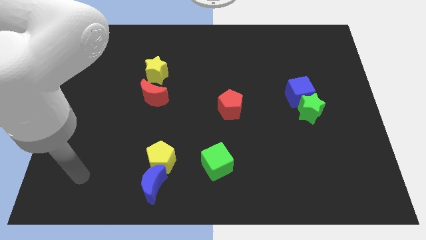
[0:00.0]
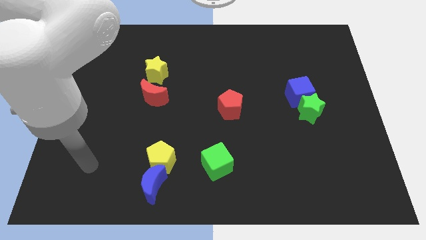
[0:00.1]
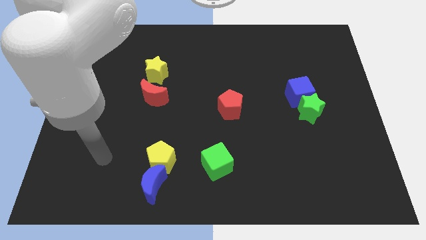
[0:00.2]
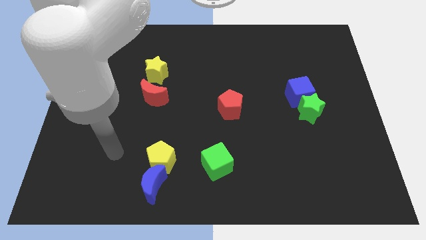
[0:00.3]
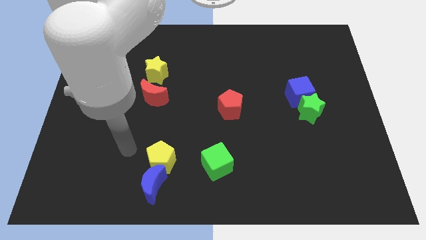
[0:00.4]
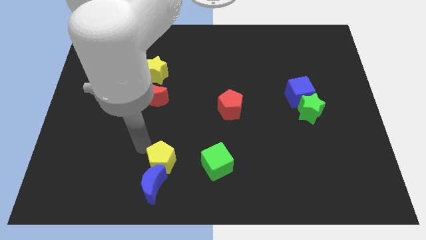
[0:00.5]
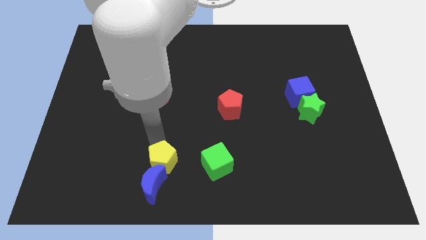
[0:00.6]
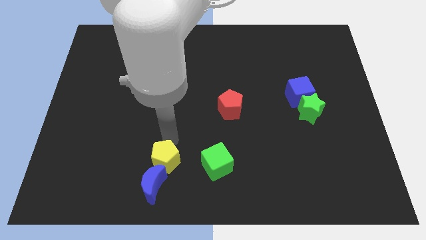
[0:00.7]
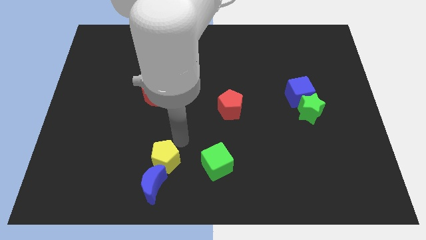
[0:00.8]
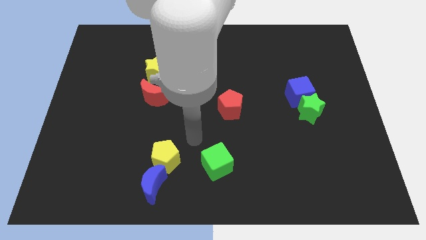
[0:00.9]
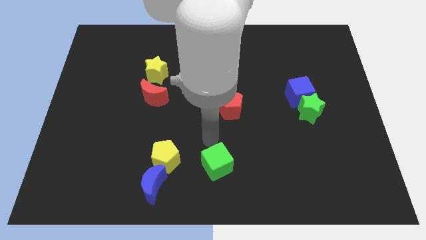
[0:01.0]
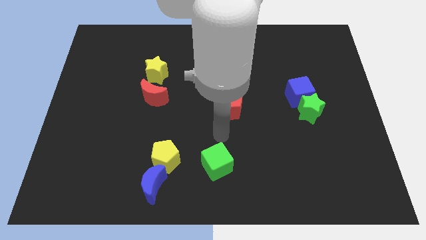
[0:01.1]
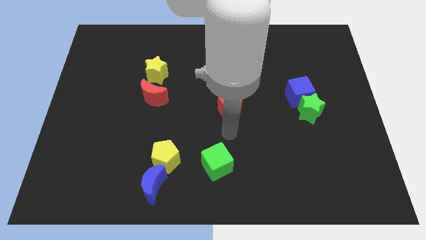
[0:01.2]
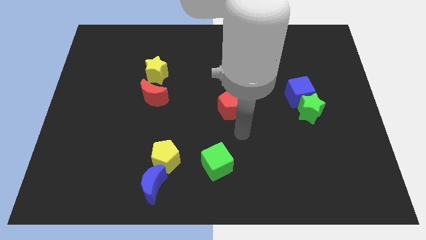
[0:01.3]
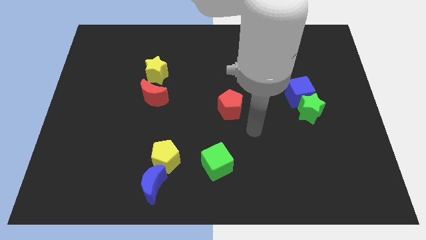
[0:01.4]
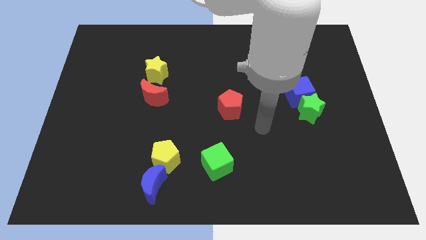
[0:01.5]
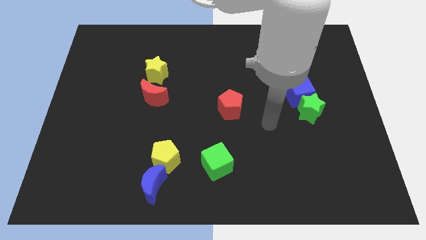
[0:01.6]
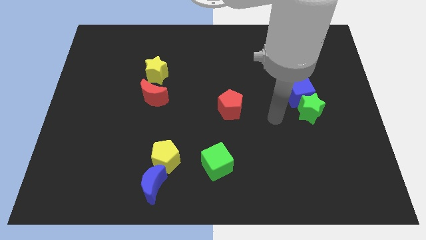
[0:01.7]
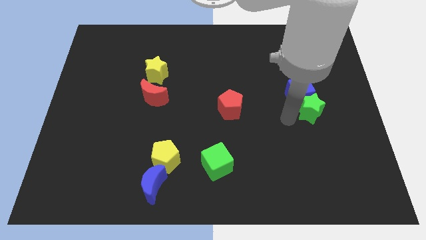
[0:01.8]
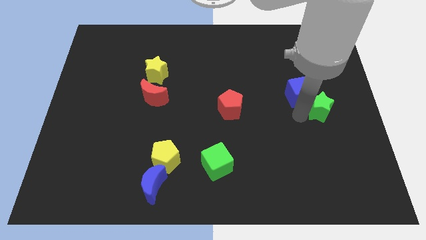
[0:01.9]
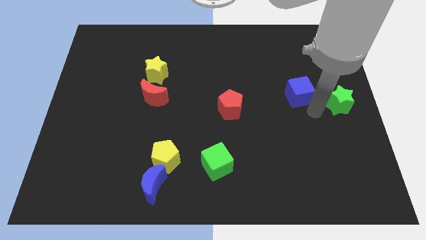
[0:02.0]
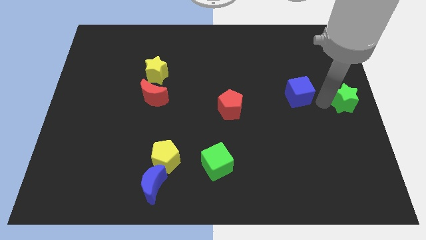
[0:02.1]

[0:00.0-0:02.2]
pull the blue cube apart from the green star

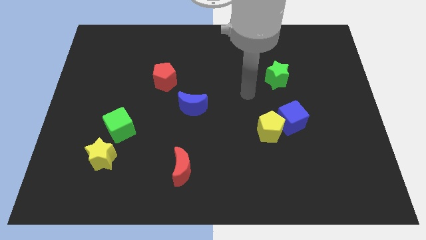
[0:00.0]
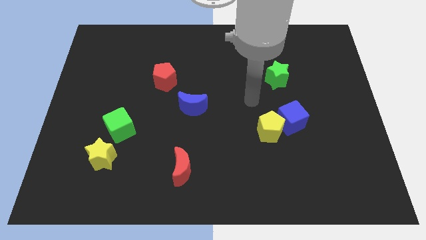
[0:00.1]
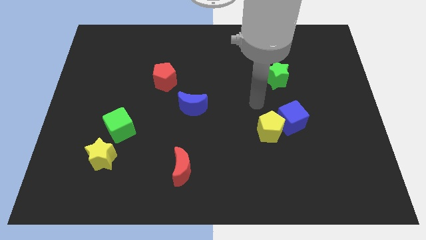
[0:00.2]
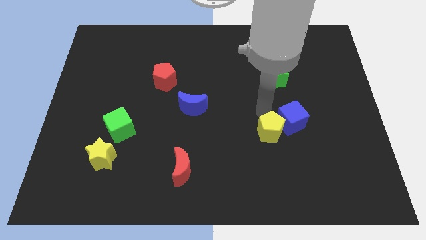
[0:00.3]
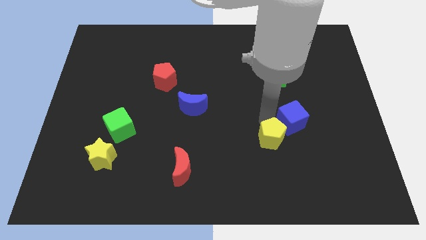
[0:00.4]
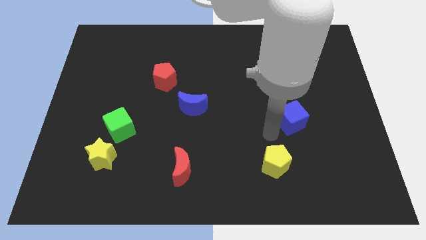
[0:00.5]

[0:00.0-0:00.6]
separate the blue cube from the yellow pentagon

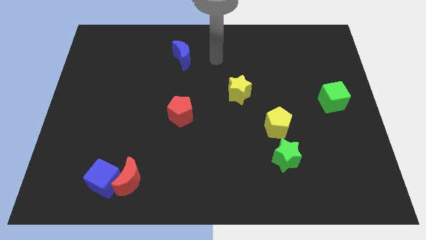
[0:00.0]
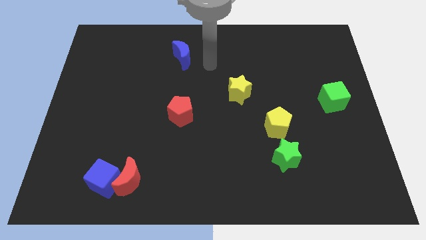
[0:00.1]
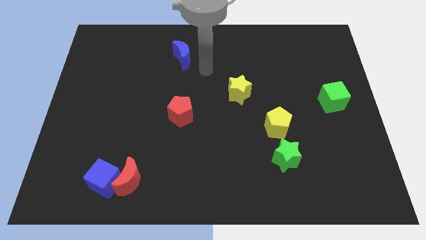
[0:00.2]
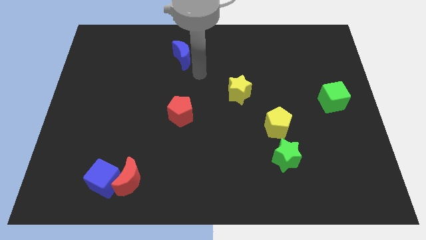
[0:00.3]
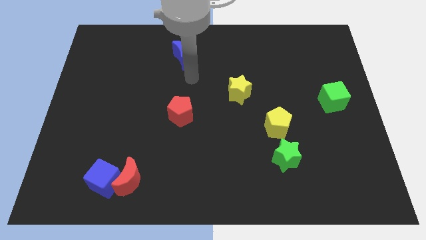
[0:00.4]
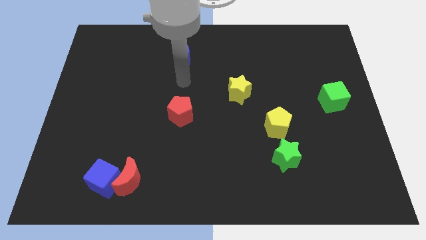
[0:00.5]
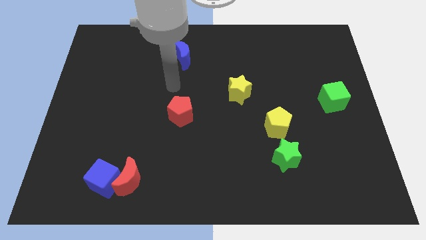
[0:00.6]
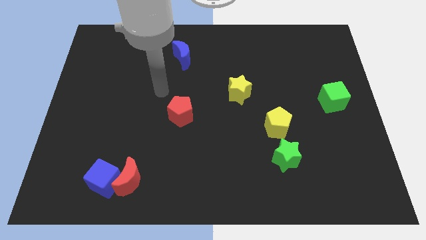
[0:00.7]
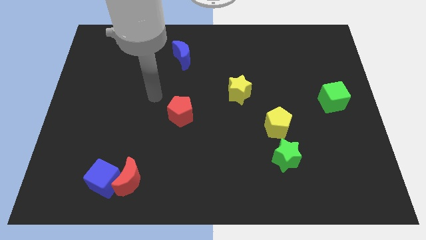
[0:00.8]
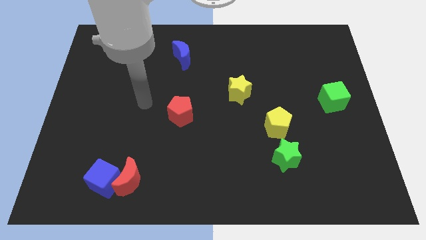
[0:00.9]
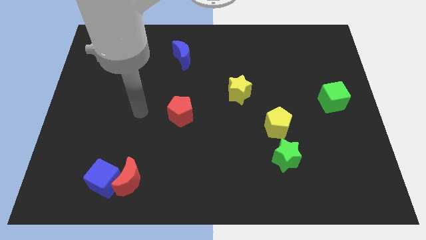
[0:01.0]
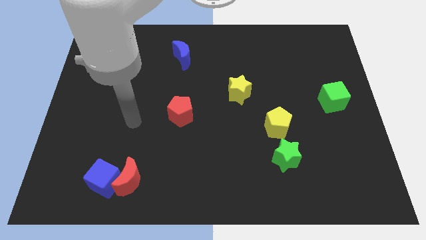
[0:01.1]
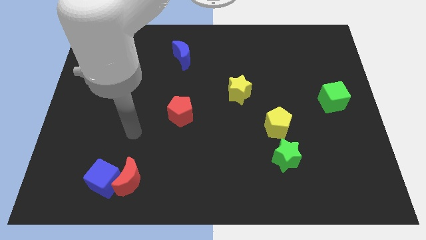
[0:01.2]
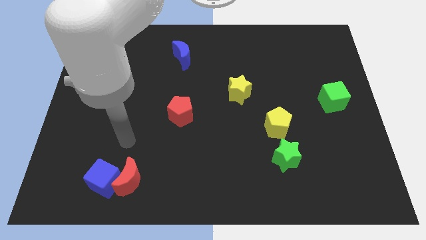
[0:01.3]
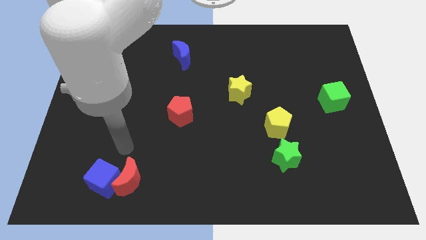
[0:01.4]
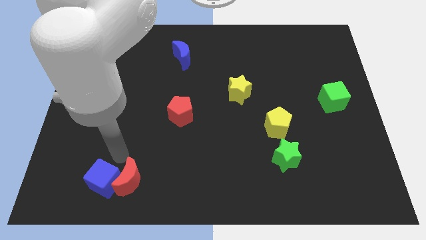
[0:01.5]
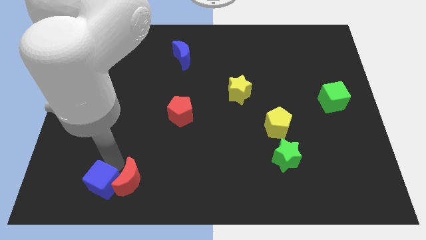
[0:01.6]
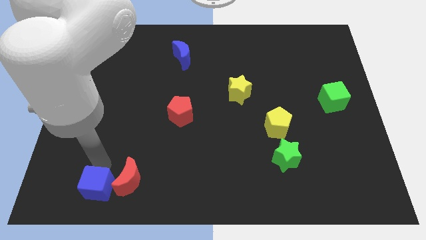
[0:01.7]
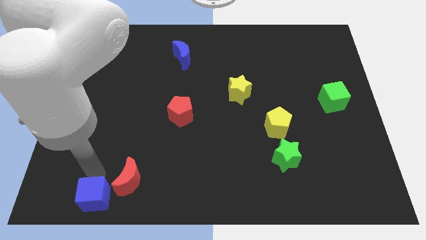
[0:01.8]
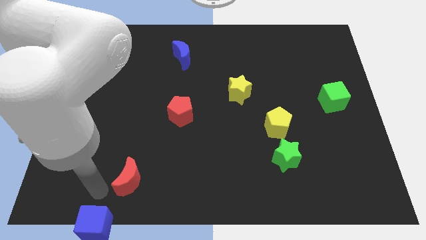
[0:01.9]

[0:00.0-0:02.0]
separate the red moon from the blue cube

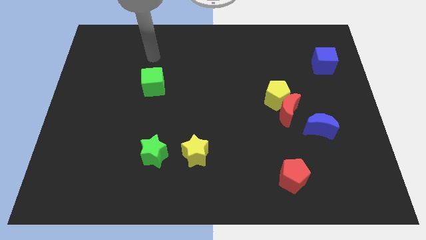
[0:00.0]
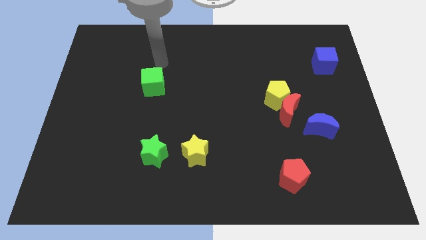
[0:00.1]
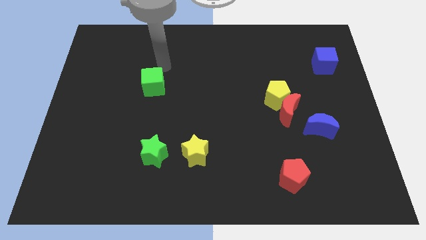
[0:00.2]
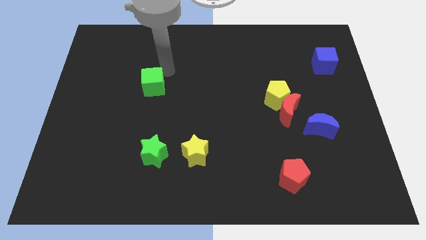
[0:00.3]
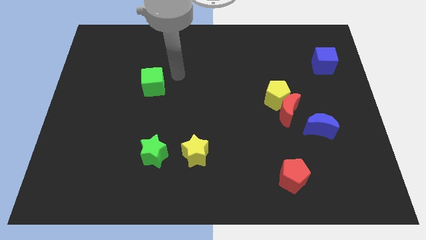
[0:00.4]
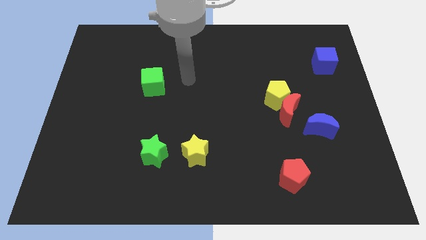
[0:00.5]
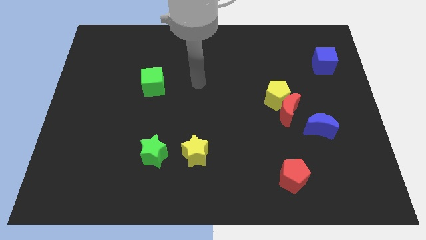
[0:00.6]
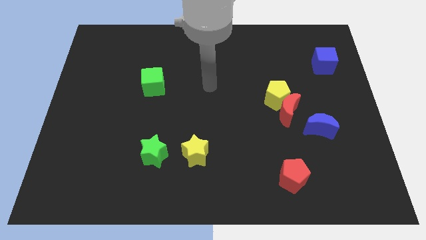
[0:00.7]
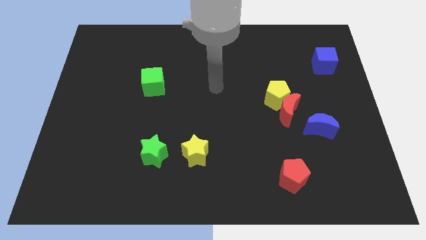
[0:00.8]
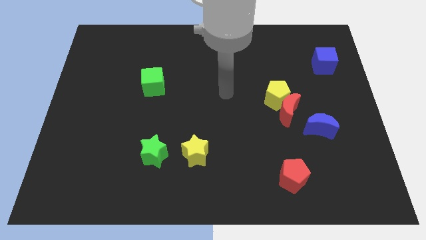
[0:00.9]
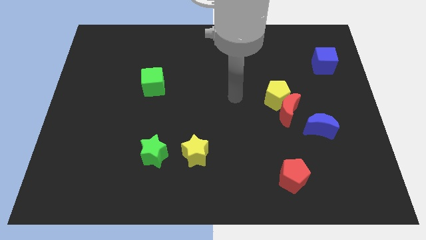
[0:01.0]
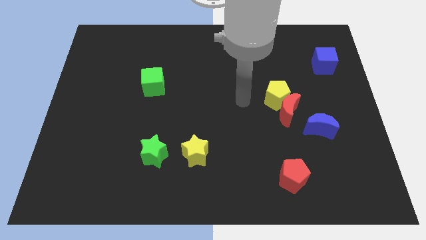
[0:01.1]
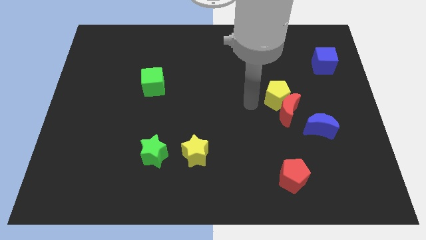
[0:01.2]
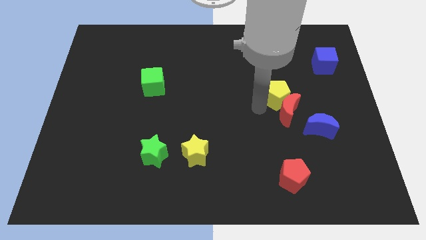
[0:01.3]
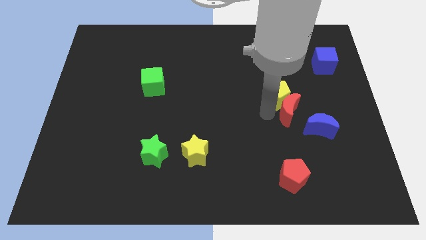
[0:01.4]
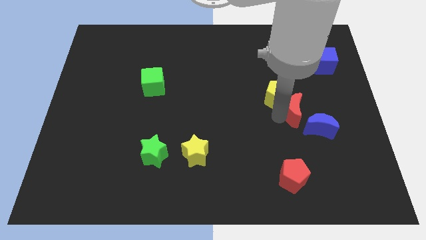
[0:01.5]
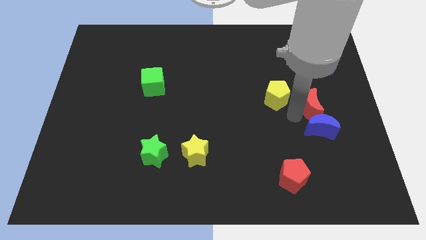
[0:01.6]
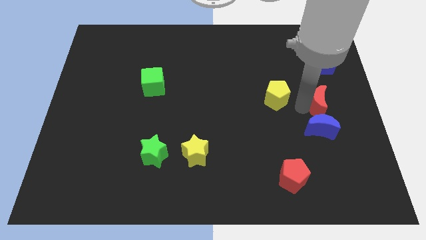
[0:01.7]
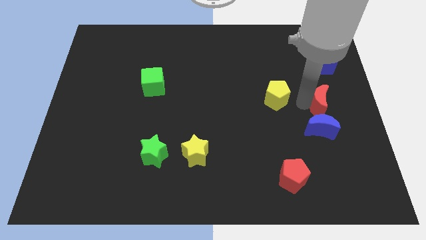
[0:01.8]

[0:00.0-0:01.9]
separate the yellow pentagon from the red moon

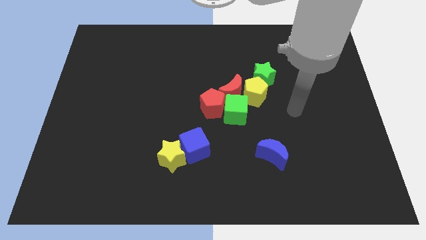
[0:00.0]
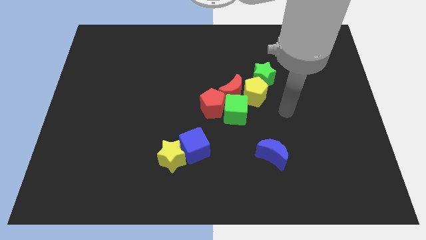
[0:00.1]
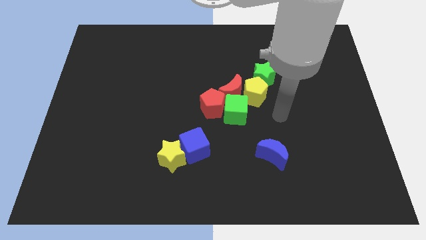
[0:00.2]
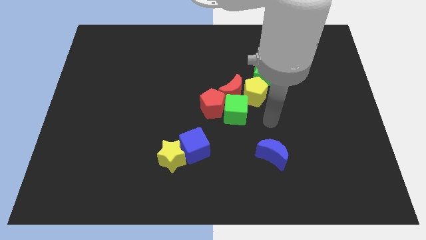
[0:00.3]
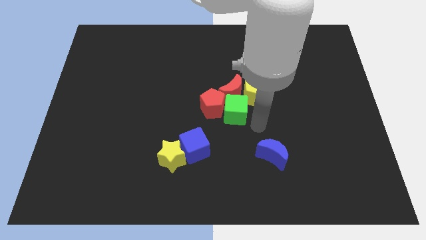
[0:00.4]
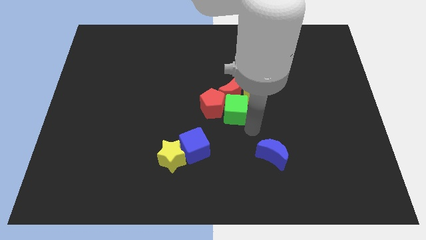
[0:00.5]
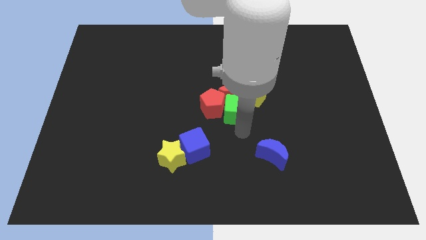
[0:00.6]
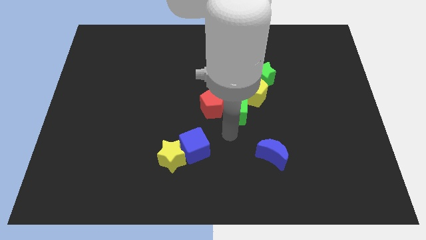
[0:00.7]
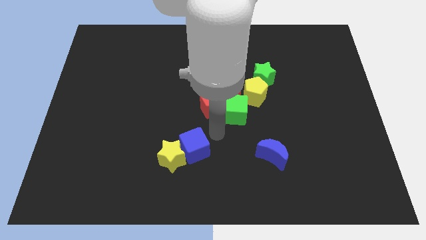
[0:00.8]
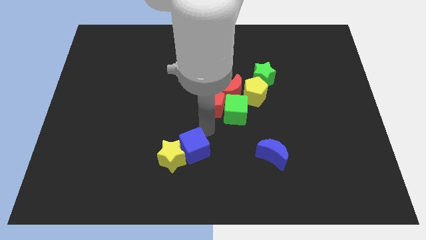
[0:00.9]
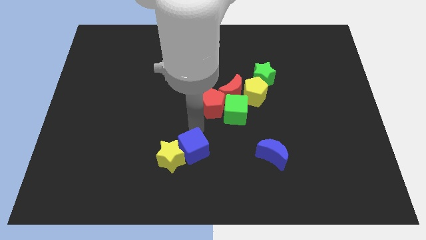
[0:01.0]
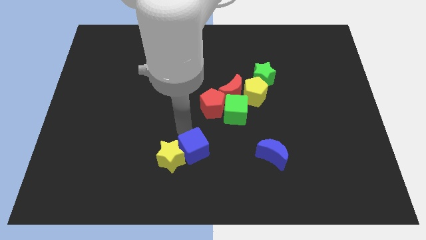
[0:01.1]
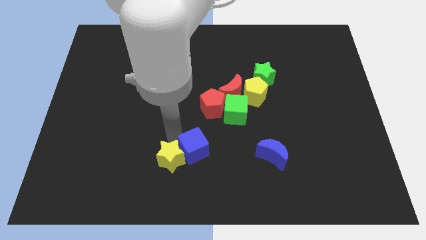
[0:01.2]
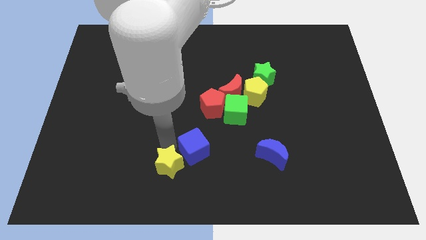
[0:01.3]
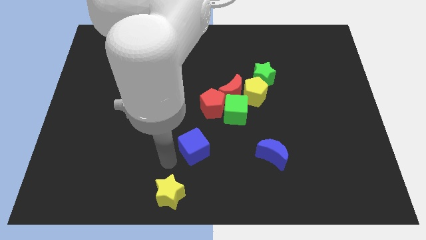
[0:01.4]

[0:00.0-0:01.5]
move the blue cube away from the yellow star

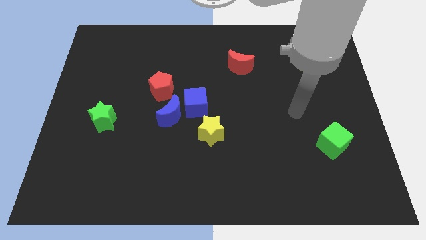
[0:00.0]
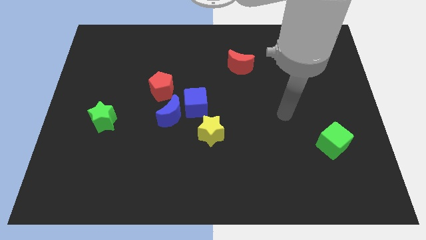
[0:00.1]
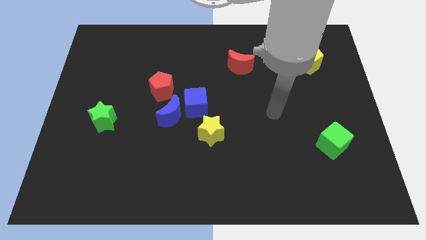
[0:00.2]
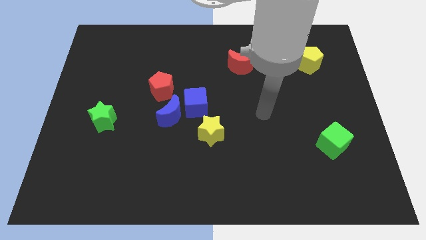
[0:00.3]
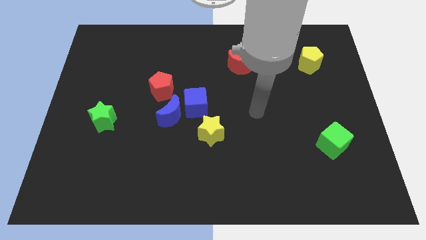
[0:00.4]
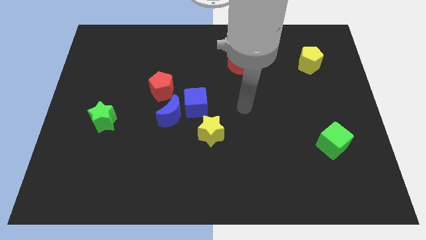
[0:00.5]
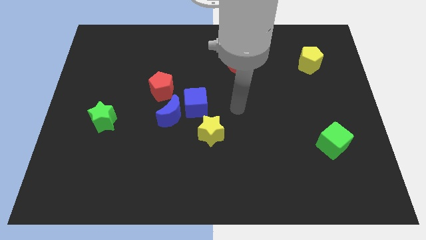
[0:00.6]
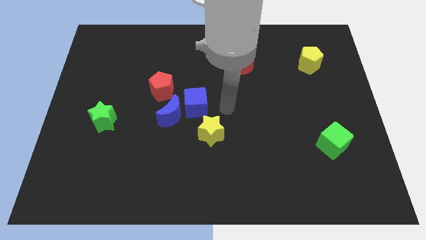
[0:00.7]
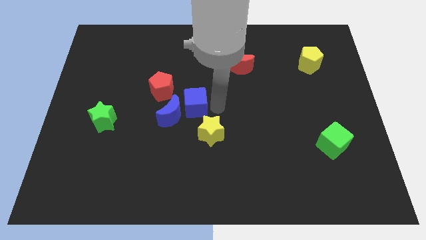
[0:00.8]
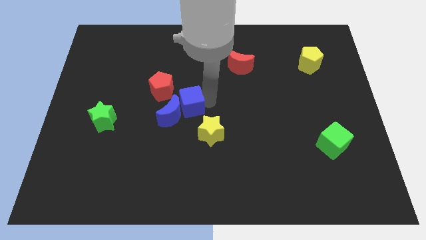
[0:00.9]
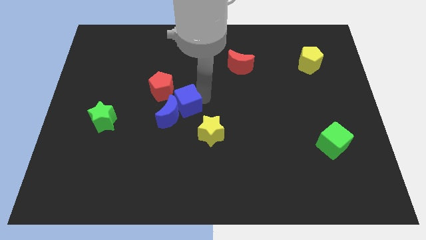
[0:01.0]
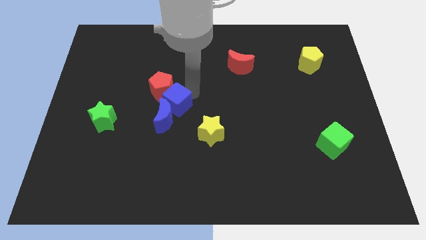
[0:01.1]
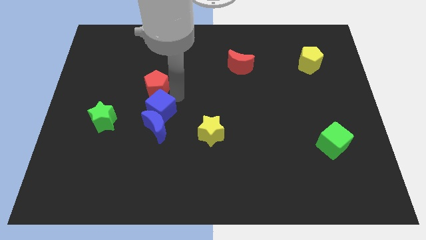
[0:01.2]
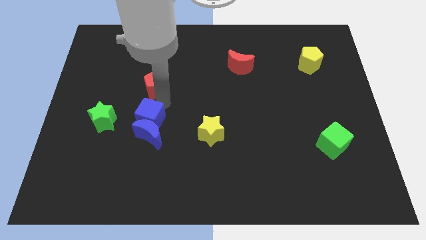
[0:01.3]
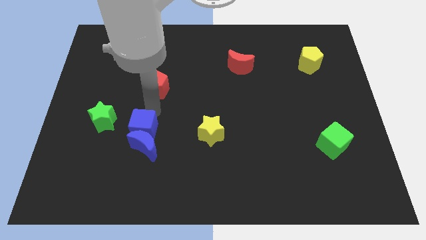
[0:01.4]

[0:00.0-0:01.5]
separate the blue moon from the blue cube and red pentagon
